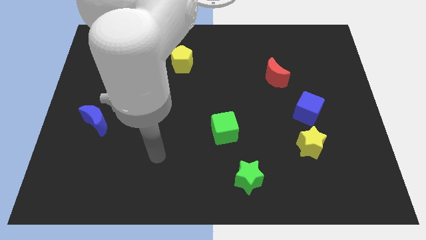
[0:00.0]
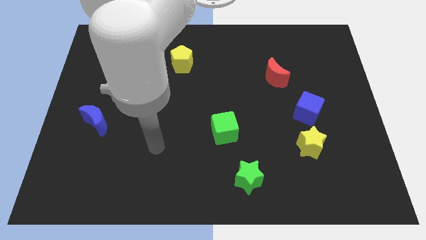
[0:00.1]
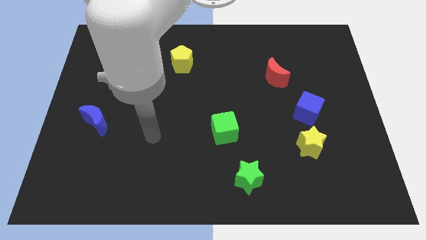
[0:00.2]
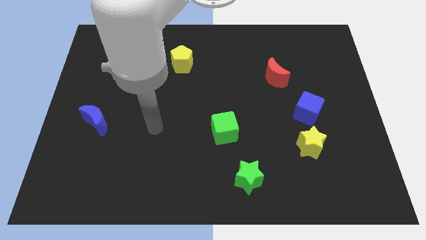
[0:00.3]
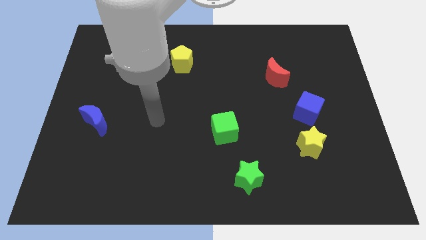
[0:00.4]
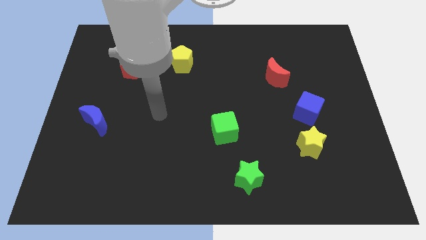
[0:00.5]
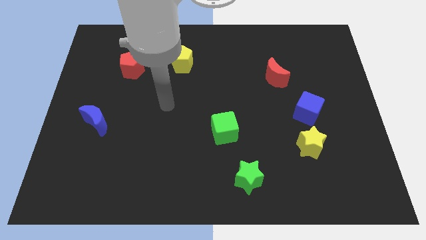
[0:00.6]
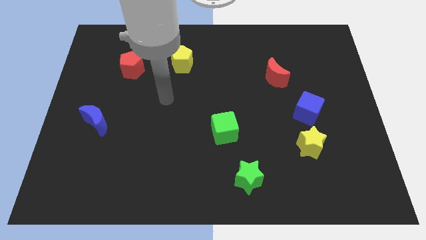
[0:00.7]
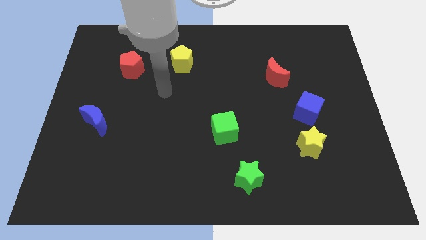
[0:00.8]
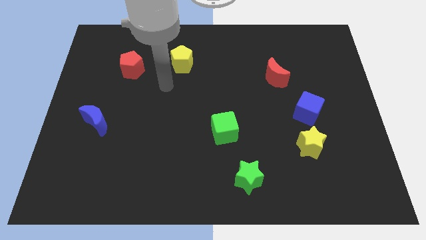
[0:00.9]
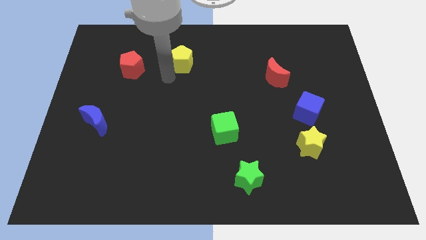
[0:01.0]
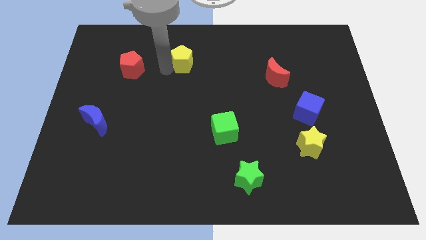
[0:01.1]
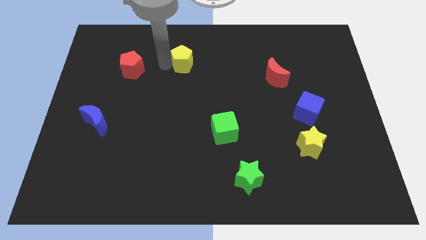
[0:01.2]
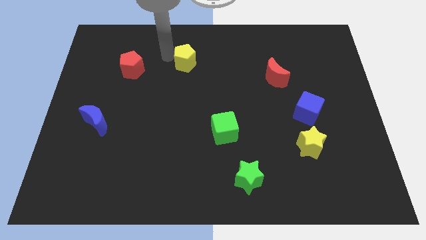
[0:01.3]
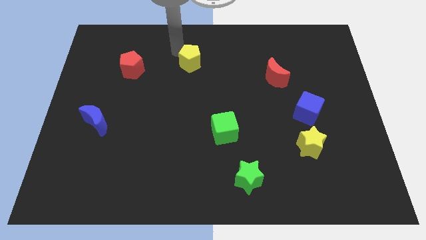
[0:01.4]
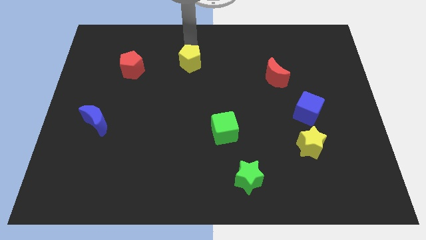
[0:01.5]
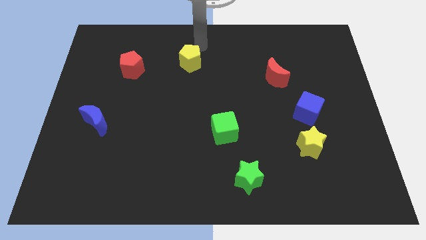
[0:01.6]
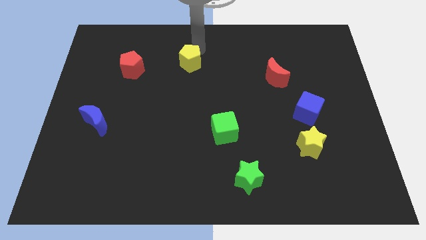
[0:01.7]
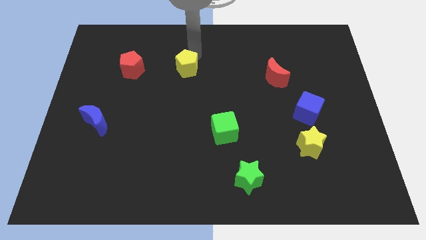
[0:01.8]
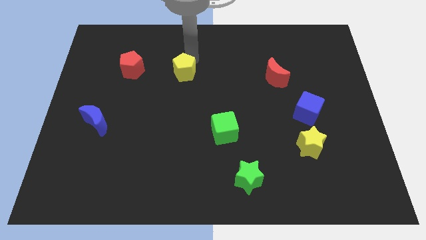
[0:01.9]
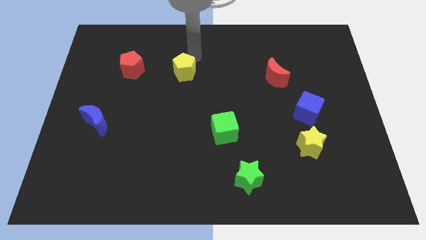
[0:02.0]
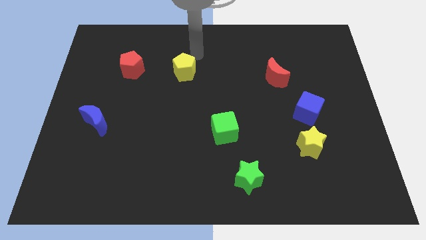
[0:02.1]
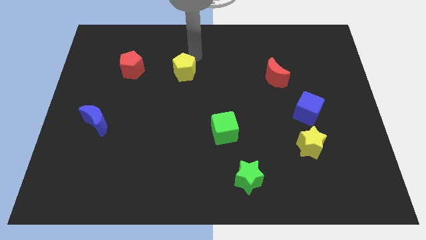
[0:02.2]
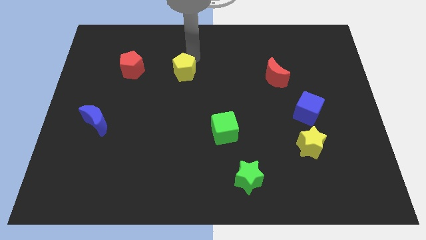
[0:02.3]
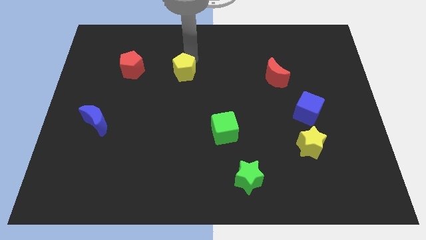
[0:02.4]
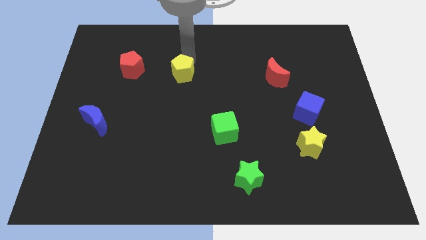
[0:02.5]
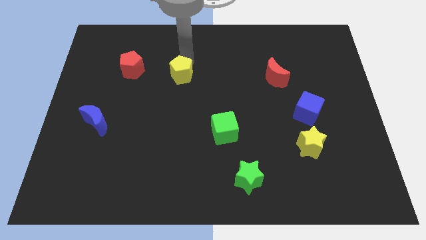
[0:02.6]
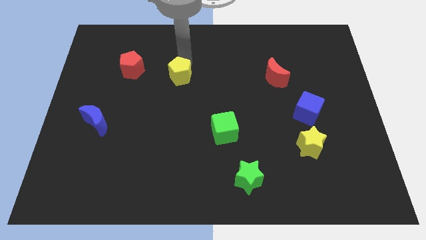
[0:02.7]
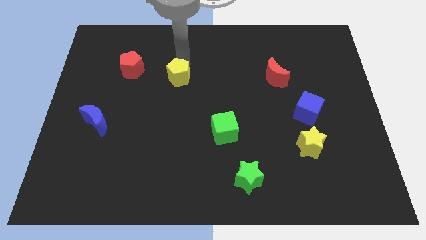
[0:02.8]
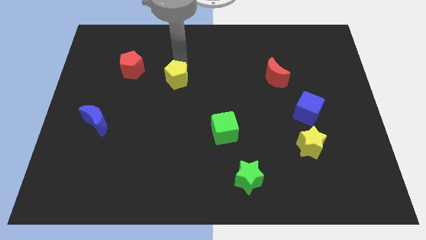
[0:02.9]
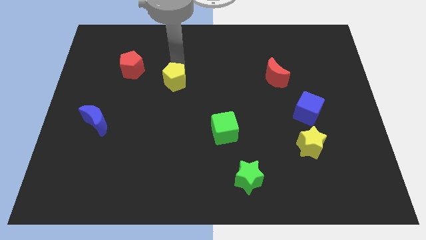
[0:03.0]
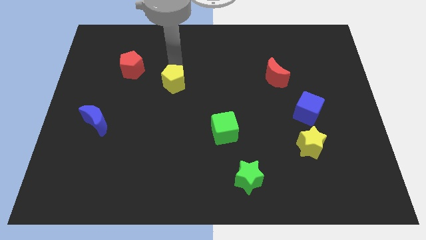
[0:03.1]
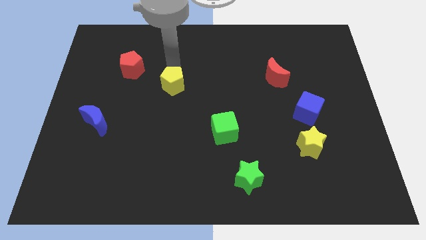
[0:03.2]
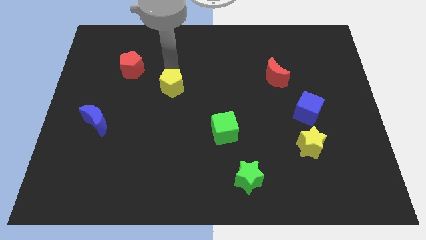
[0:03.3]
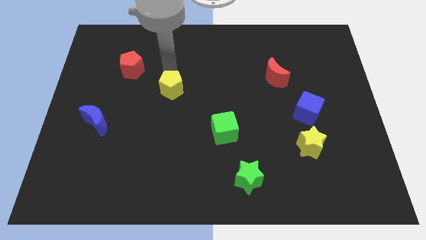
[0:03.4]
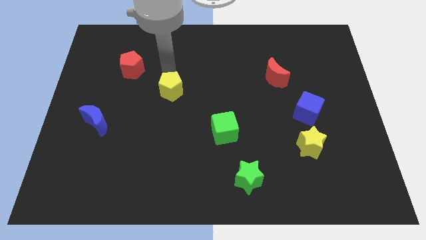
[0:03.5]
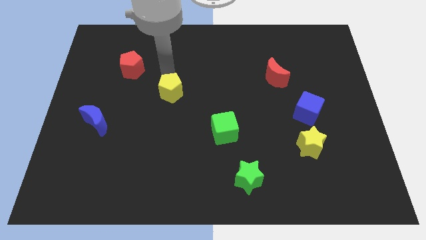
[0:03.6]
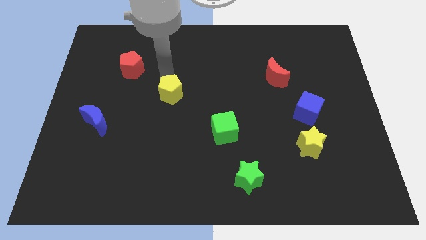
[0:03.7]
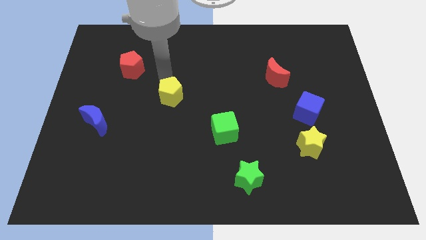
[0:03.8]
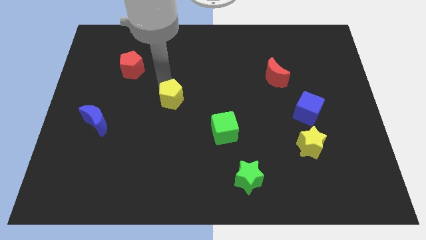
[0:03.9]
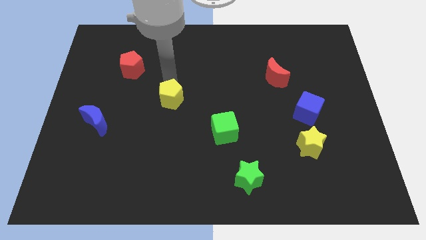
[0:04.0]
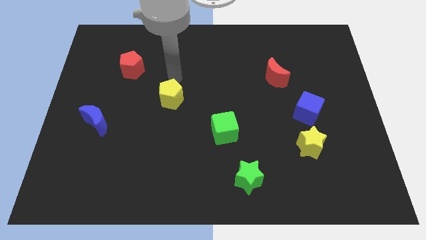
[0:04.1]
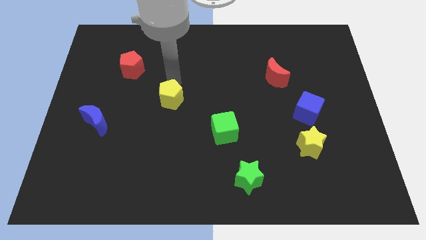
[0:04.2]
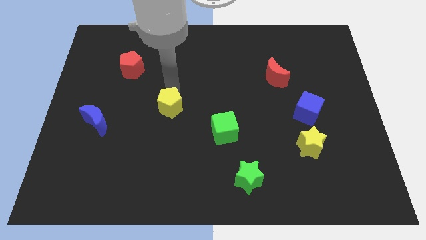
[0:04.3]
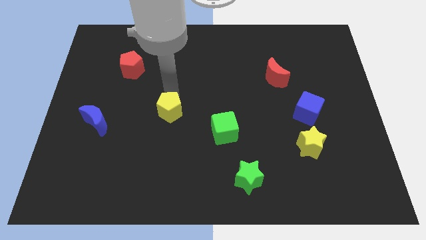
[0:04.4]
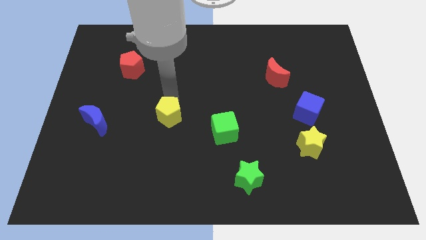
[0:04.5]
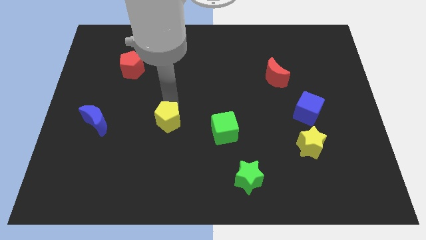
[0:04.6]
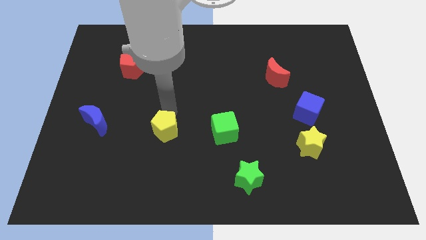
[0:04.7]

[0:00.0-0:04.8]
move the yellow pentagon down

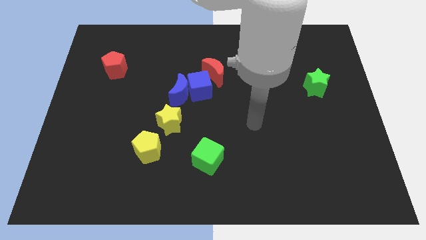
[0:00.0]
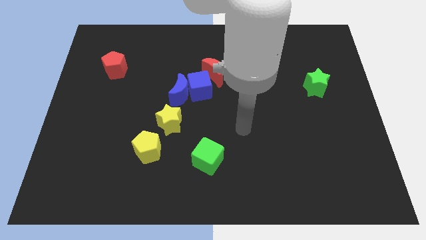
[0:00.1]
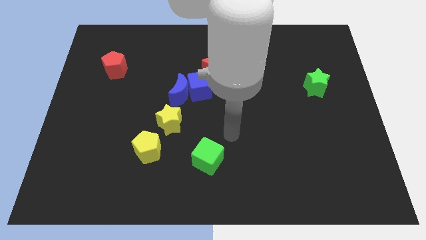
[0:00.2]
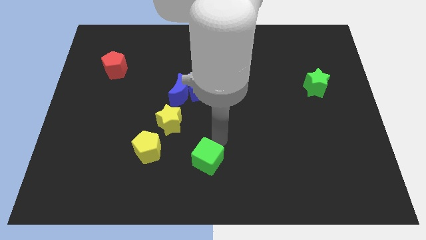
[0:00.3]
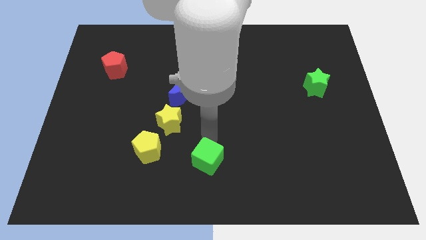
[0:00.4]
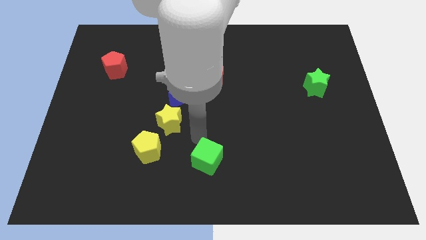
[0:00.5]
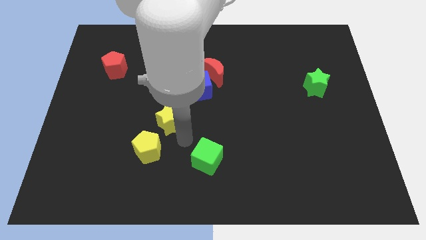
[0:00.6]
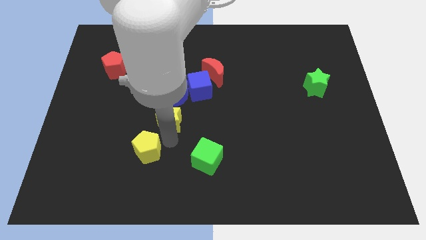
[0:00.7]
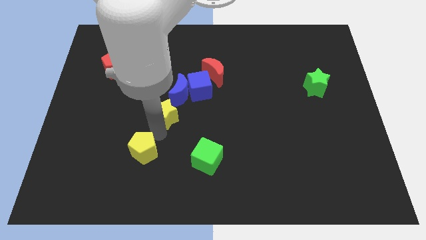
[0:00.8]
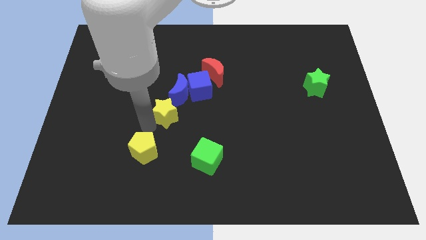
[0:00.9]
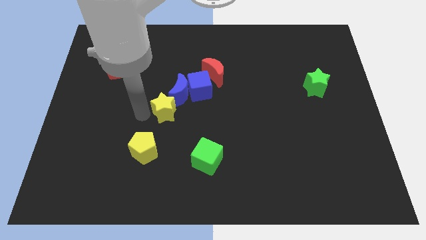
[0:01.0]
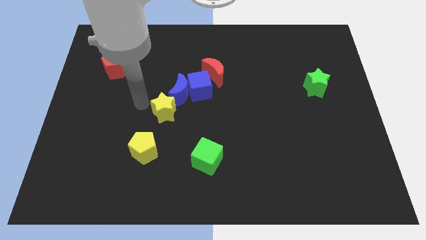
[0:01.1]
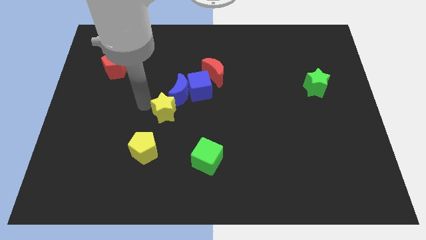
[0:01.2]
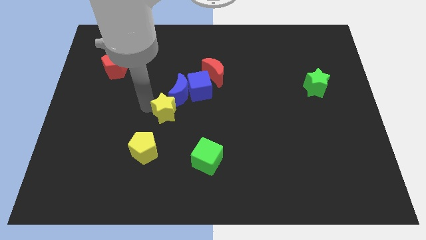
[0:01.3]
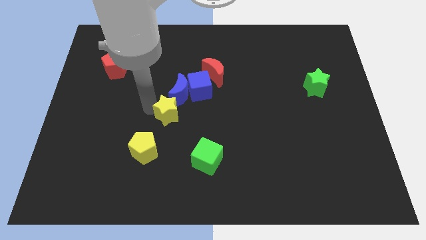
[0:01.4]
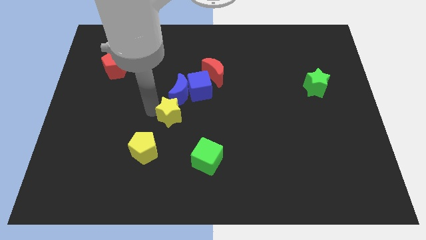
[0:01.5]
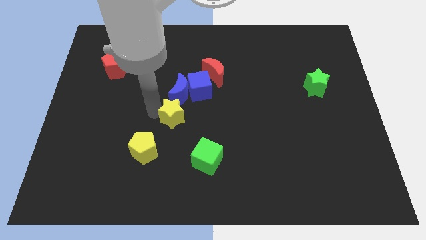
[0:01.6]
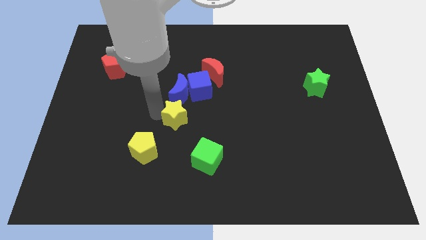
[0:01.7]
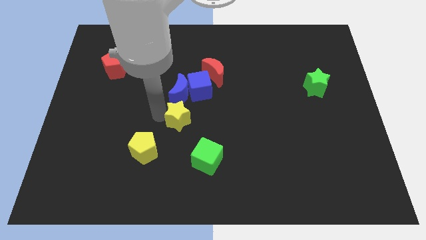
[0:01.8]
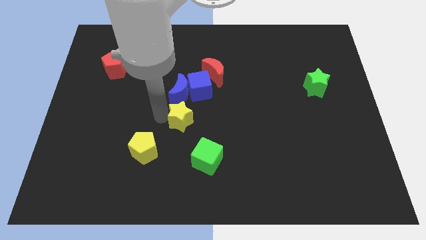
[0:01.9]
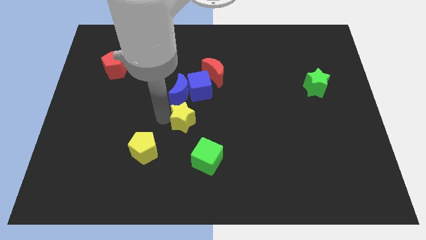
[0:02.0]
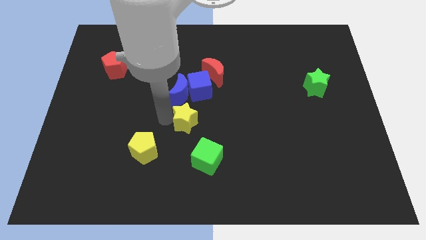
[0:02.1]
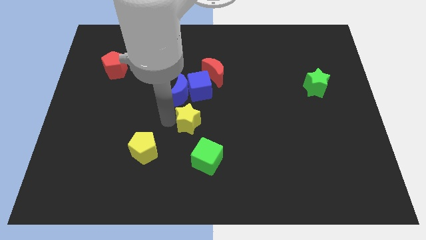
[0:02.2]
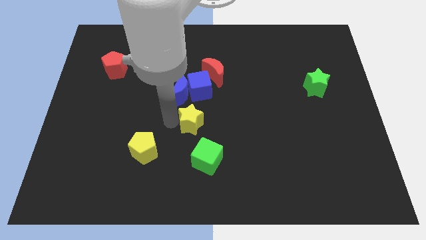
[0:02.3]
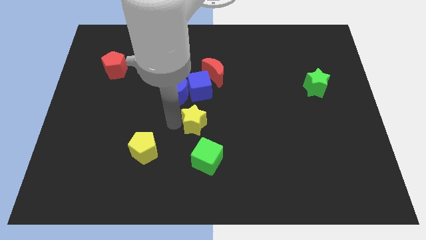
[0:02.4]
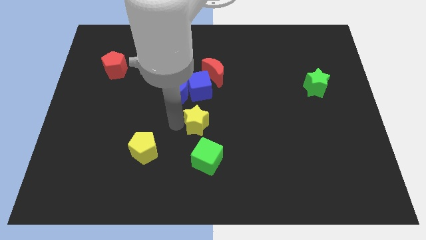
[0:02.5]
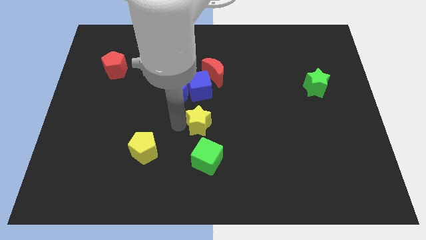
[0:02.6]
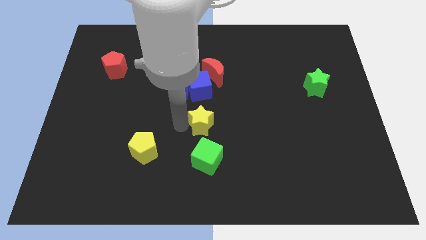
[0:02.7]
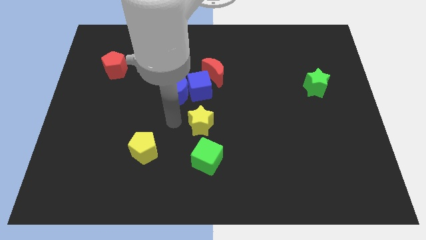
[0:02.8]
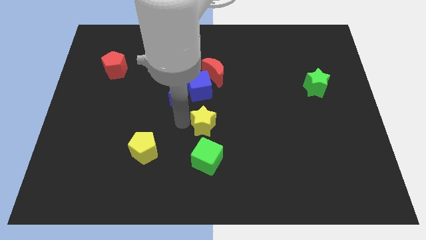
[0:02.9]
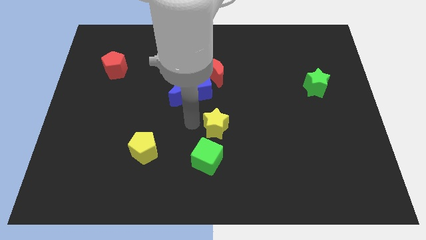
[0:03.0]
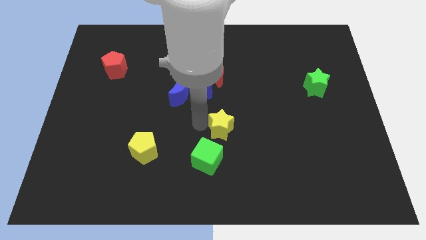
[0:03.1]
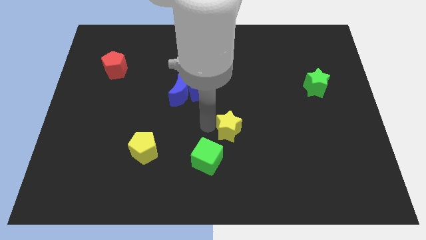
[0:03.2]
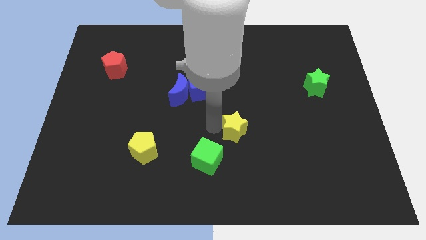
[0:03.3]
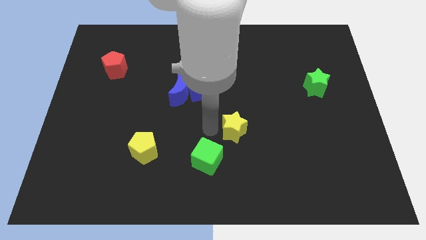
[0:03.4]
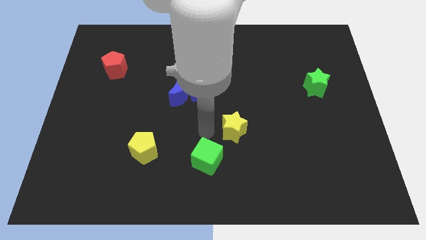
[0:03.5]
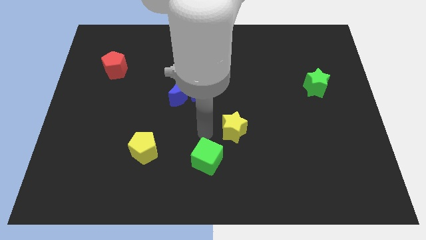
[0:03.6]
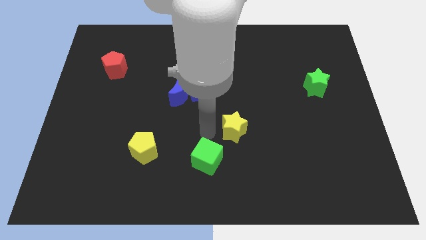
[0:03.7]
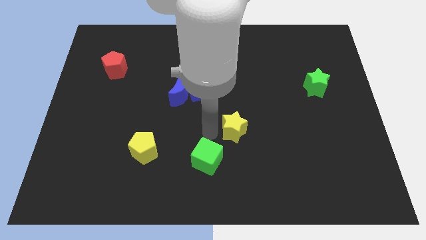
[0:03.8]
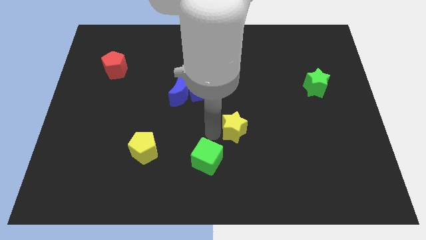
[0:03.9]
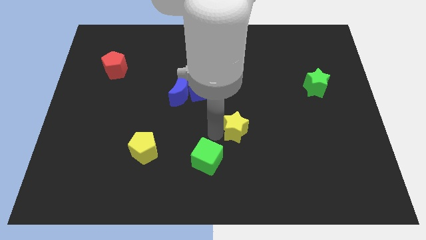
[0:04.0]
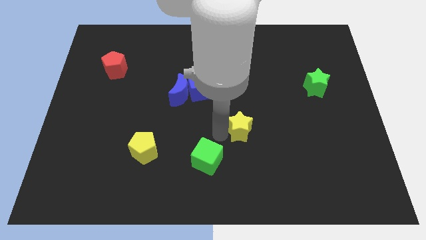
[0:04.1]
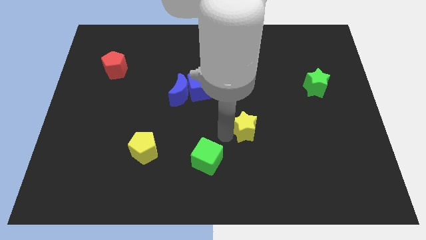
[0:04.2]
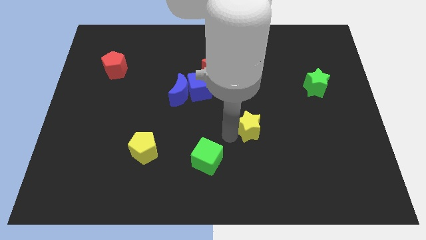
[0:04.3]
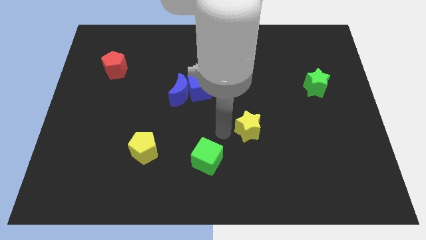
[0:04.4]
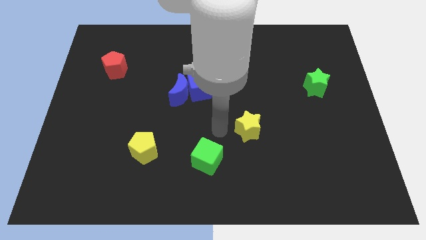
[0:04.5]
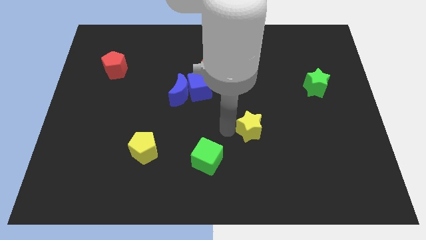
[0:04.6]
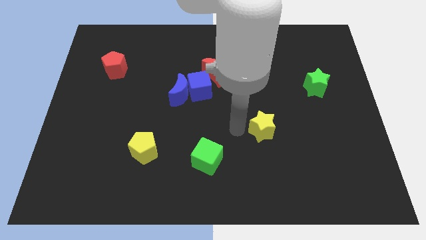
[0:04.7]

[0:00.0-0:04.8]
slide the yellow star to the right
